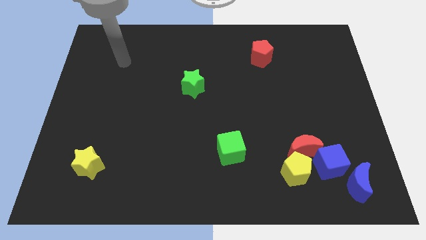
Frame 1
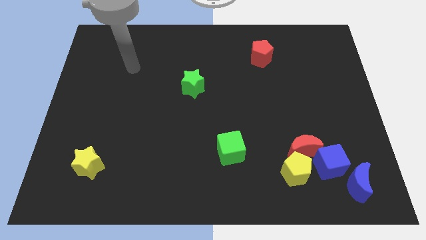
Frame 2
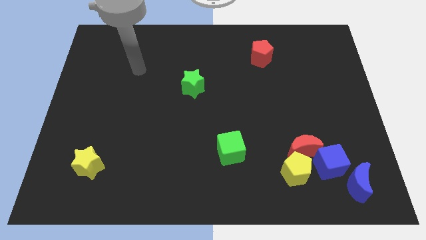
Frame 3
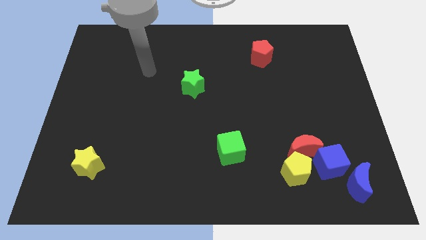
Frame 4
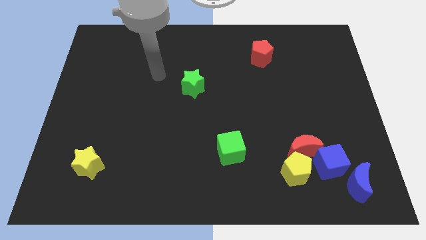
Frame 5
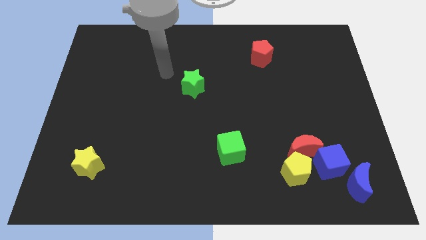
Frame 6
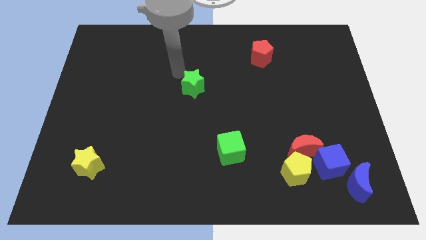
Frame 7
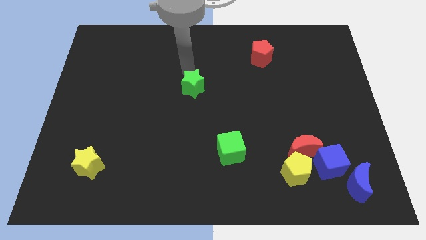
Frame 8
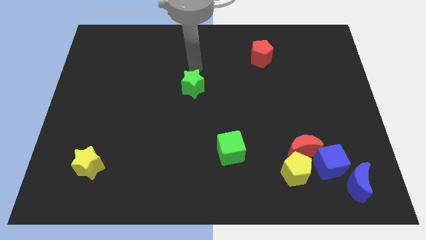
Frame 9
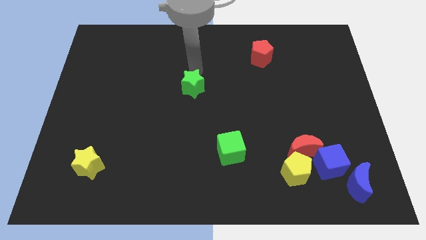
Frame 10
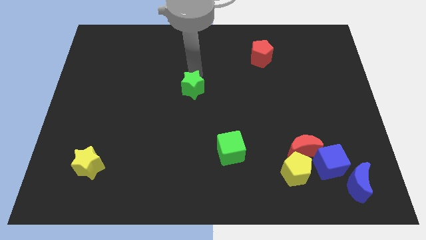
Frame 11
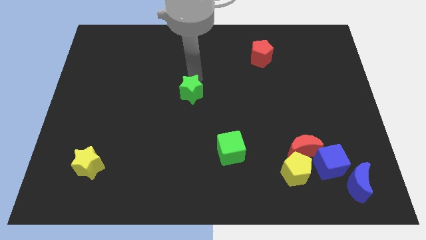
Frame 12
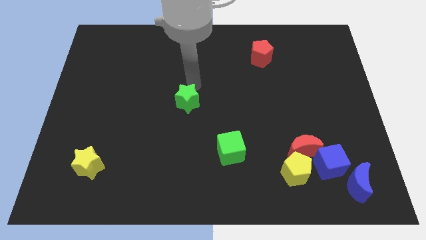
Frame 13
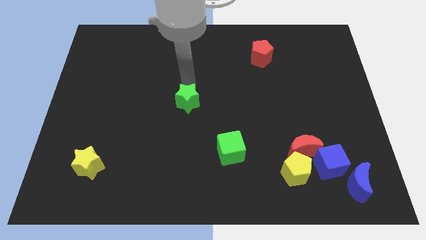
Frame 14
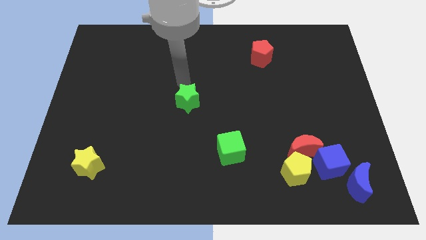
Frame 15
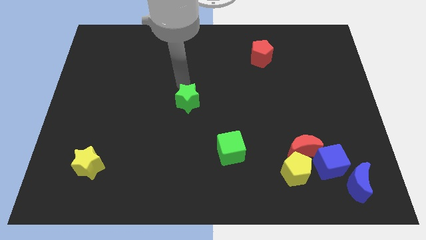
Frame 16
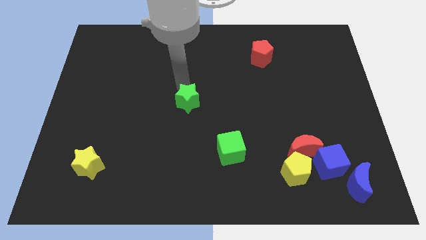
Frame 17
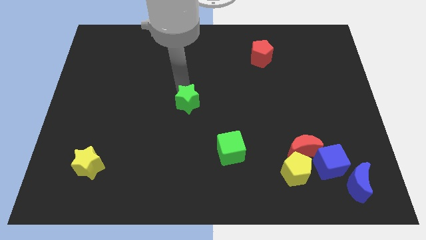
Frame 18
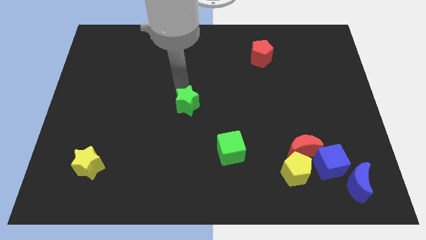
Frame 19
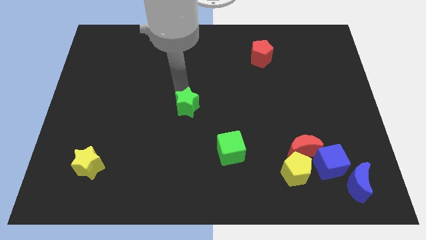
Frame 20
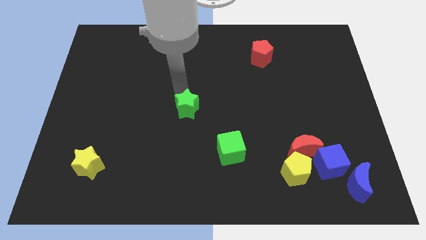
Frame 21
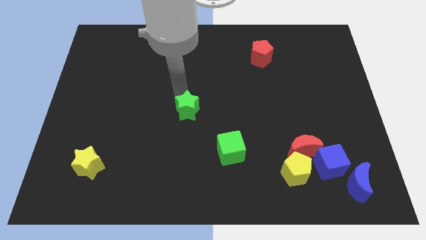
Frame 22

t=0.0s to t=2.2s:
slide the green star down a little

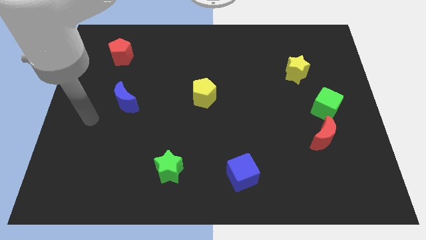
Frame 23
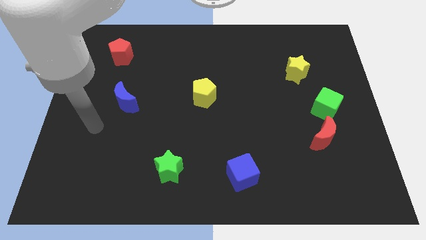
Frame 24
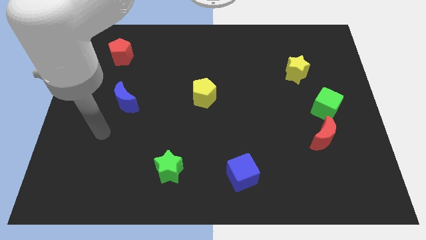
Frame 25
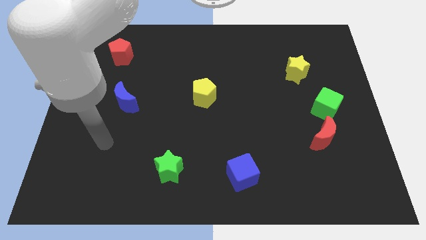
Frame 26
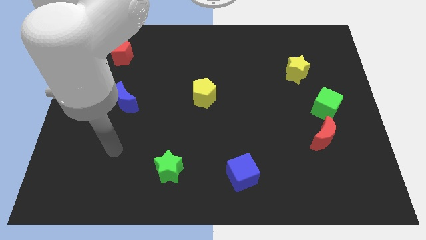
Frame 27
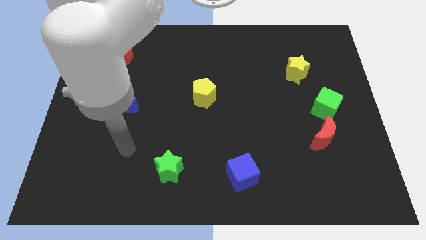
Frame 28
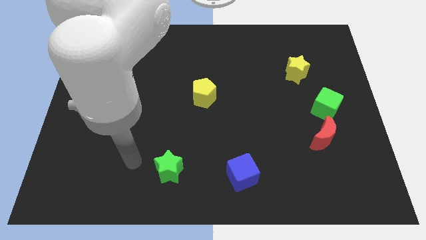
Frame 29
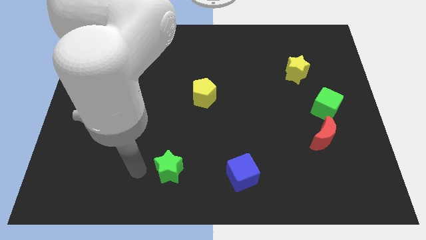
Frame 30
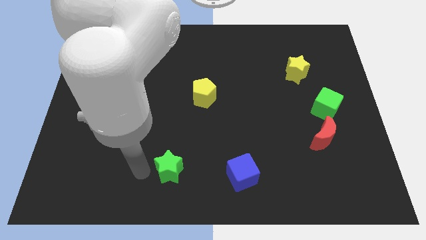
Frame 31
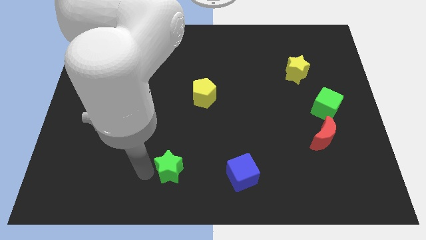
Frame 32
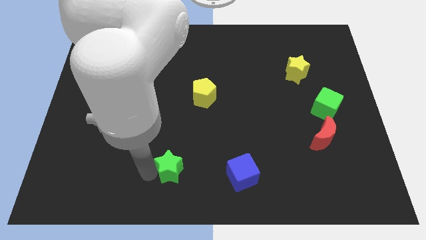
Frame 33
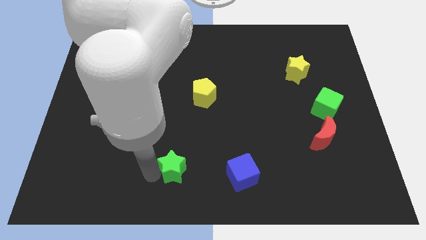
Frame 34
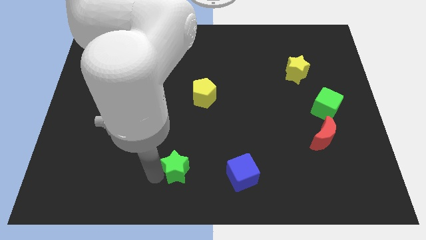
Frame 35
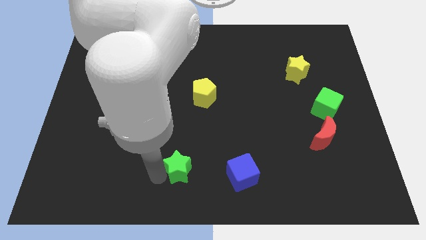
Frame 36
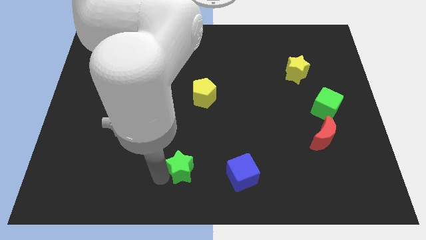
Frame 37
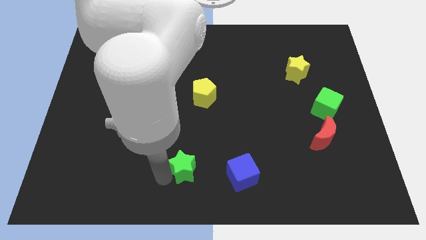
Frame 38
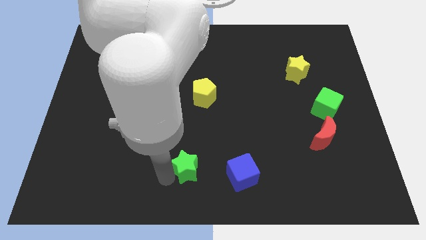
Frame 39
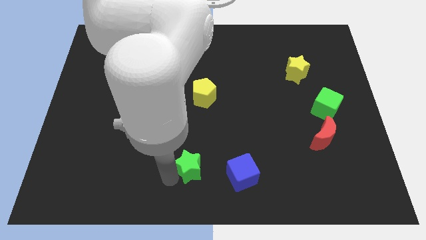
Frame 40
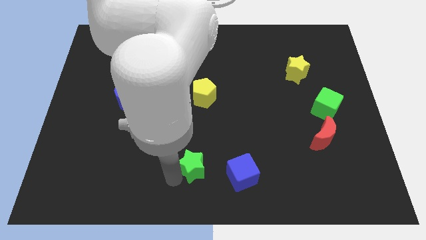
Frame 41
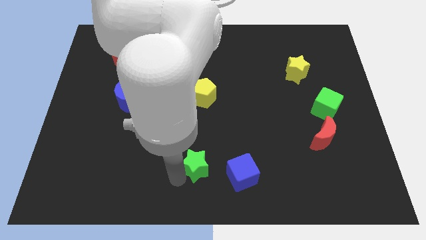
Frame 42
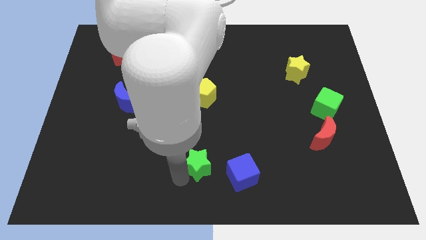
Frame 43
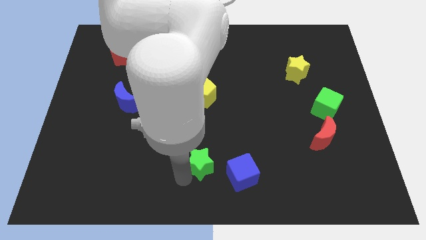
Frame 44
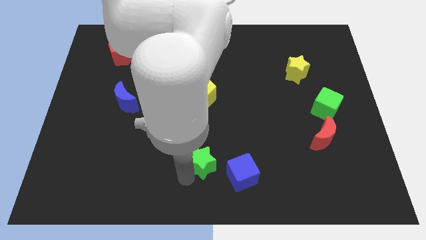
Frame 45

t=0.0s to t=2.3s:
slightly move the green star right

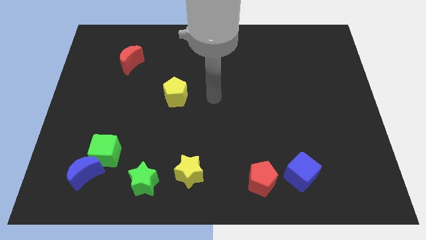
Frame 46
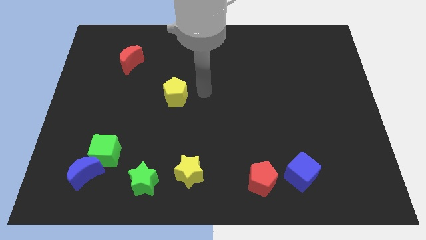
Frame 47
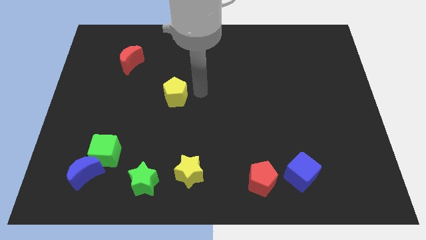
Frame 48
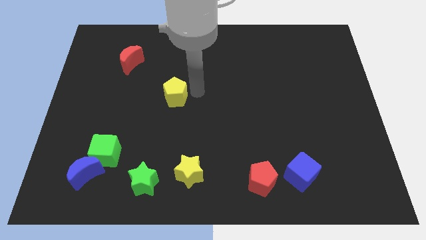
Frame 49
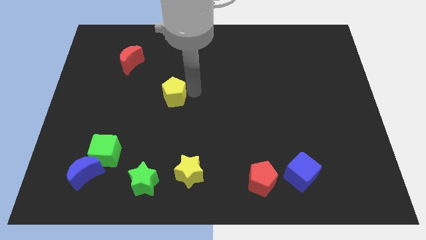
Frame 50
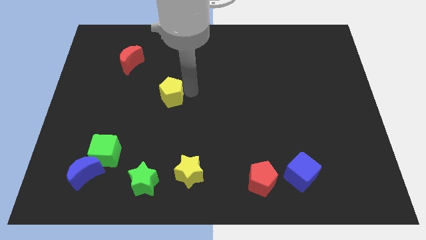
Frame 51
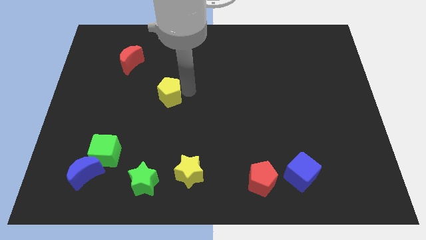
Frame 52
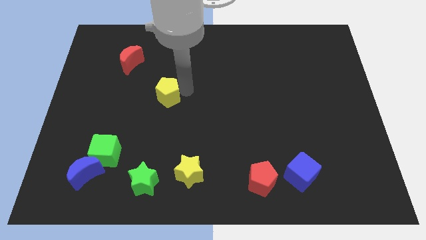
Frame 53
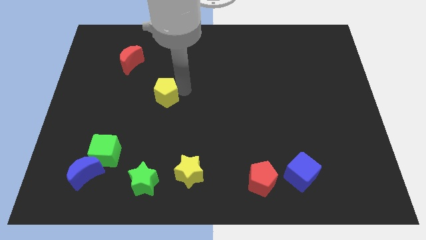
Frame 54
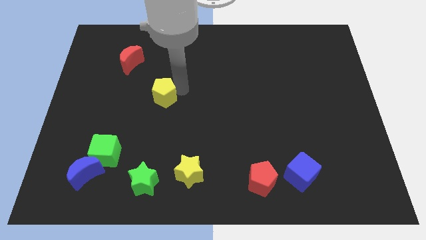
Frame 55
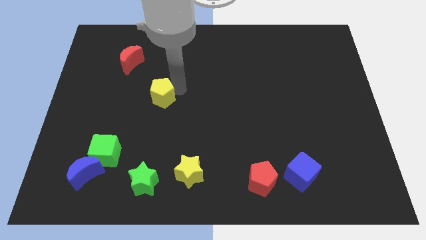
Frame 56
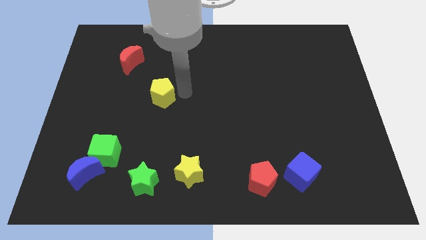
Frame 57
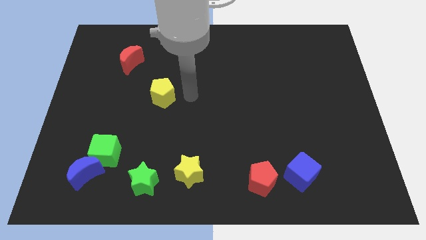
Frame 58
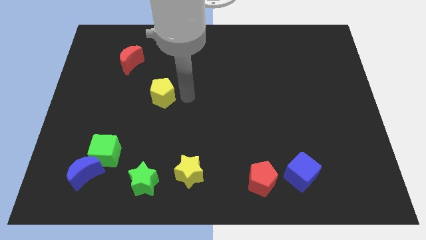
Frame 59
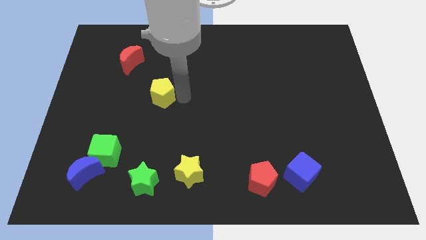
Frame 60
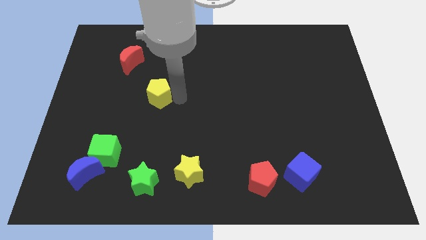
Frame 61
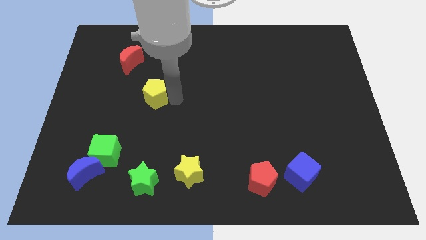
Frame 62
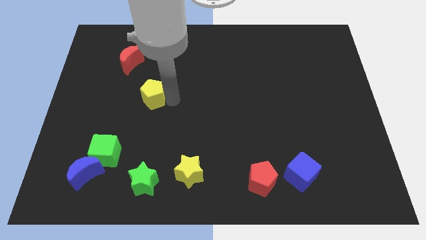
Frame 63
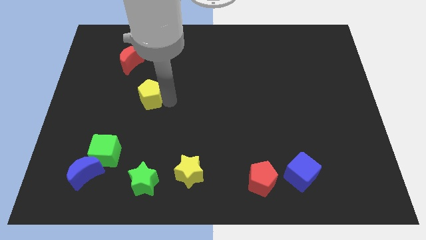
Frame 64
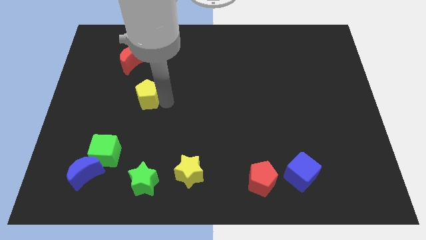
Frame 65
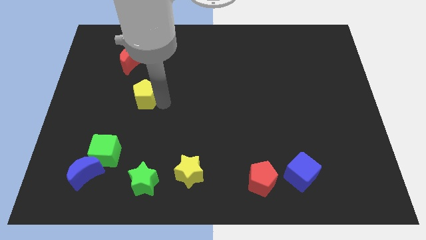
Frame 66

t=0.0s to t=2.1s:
push the yellow pentagon a little to the left

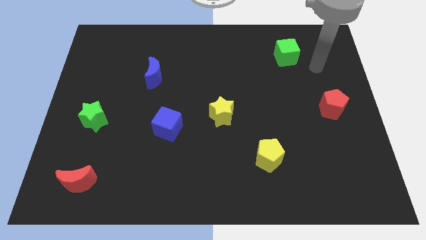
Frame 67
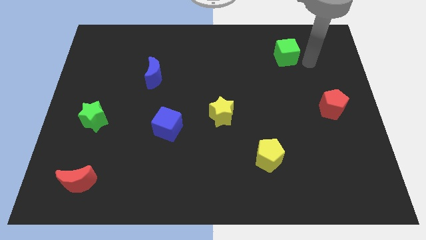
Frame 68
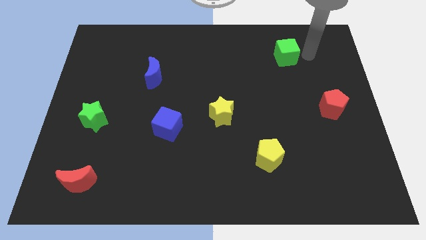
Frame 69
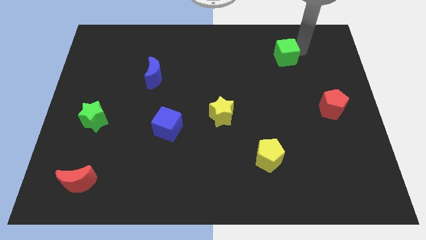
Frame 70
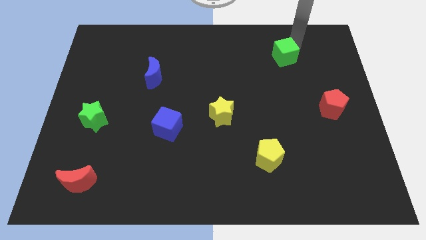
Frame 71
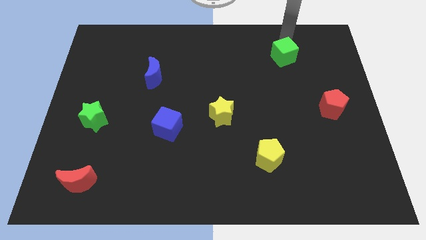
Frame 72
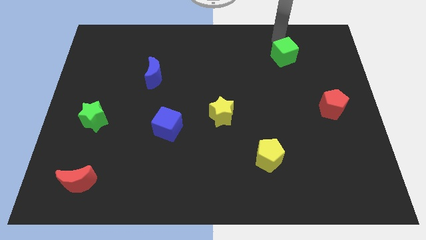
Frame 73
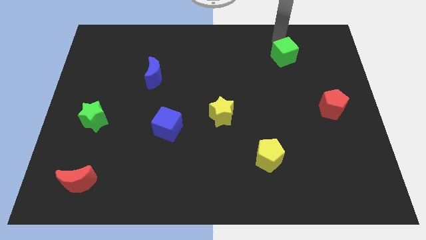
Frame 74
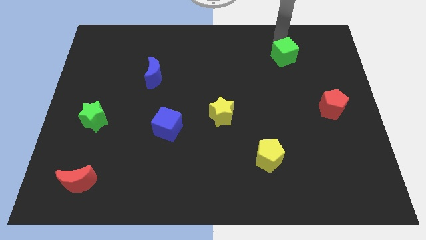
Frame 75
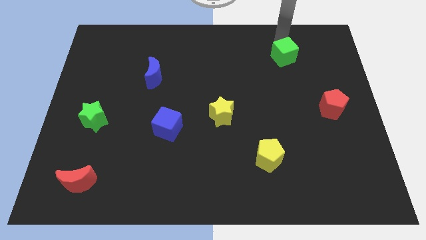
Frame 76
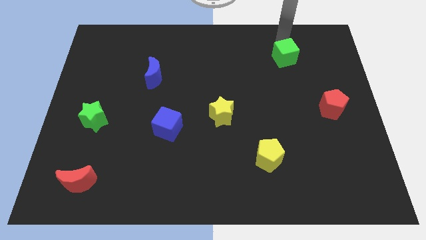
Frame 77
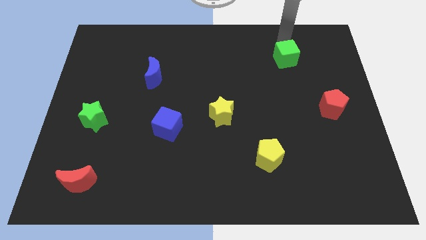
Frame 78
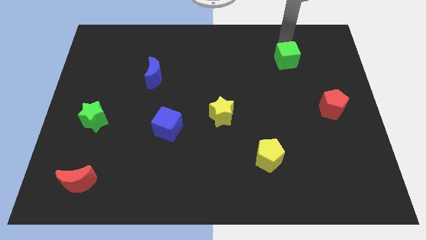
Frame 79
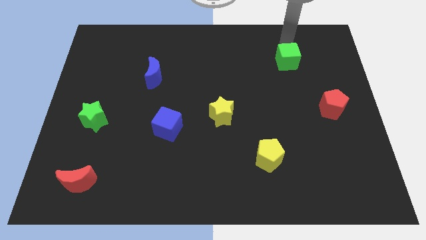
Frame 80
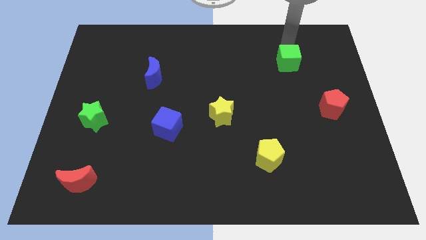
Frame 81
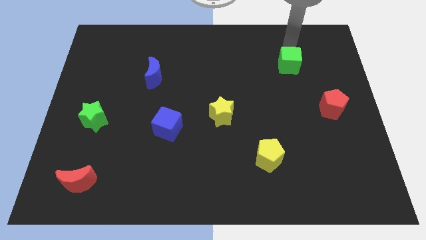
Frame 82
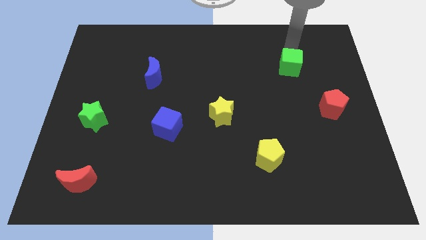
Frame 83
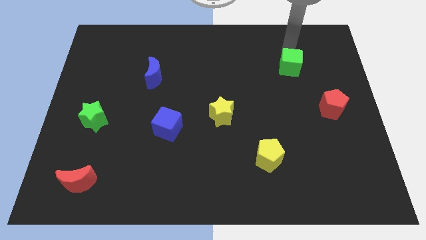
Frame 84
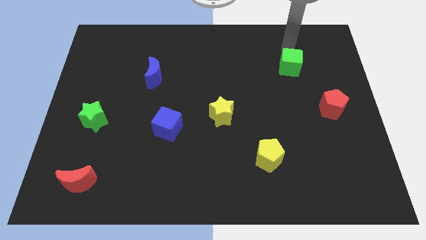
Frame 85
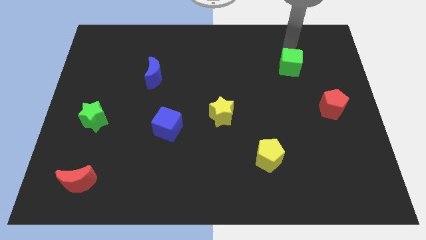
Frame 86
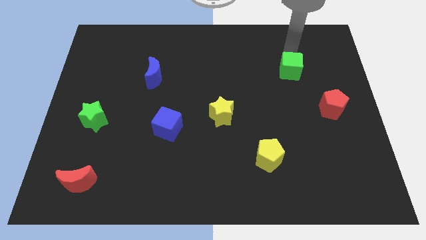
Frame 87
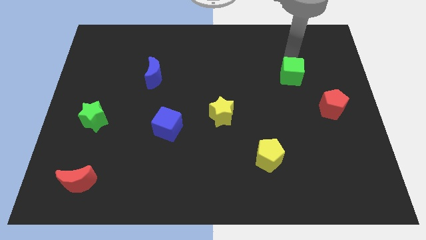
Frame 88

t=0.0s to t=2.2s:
slide the green cube downwards a little

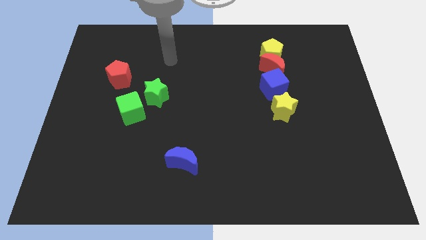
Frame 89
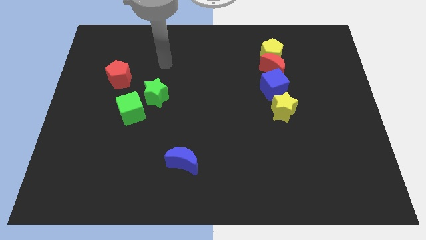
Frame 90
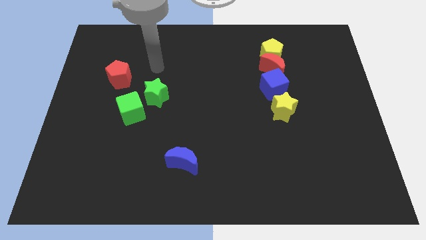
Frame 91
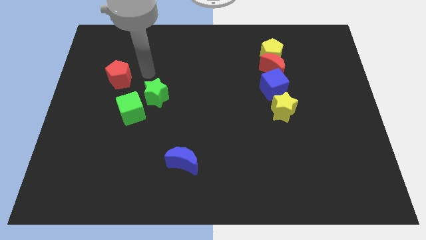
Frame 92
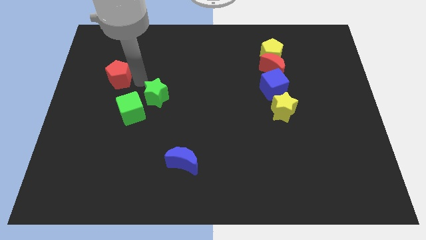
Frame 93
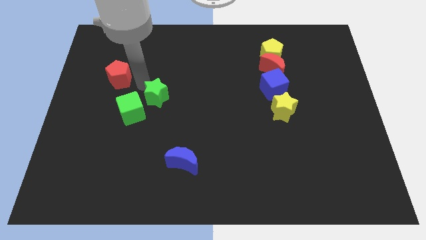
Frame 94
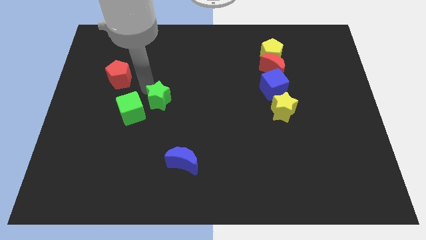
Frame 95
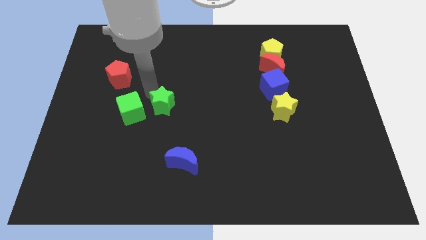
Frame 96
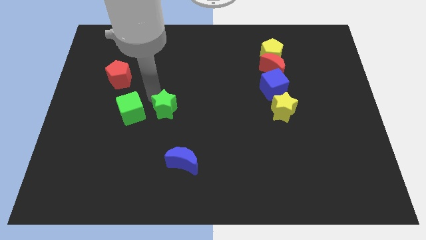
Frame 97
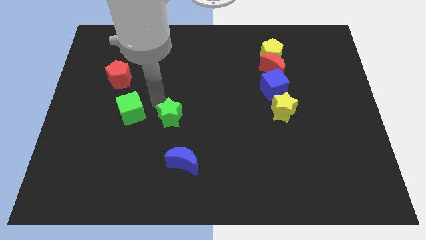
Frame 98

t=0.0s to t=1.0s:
slide the green star downwards and then to the right a little bit
